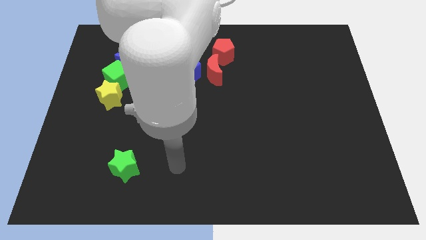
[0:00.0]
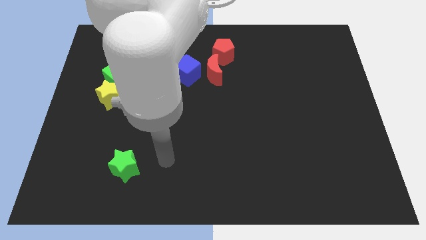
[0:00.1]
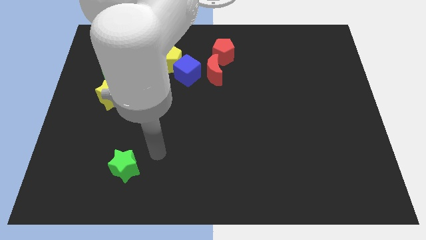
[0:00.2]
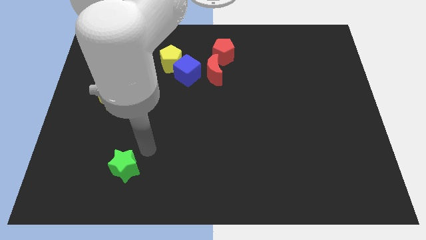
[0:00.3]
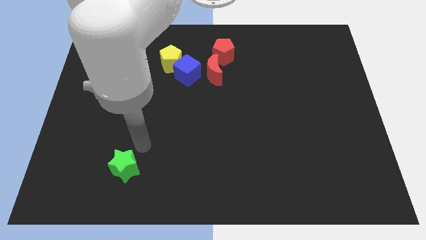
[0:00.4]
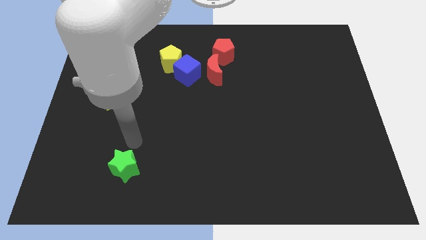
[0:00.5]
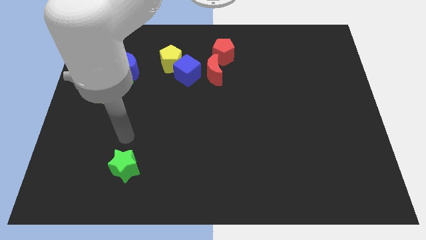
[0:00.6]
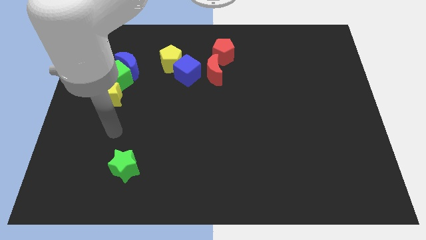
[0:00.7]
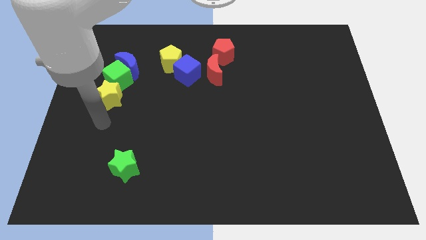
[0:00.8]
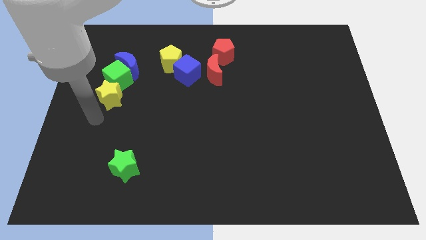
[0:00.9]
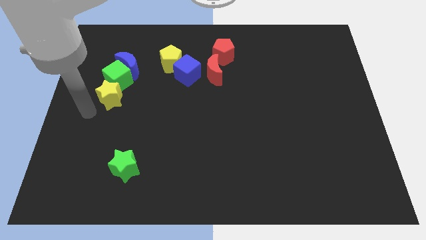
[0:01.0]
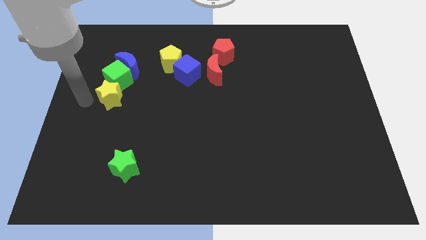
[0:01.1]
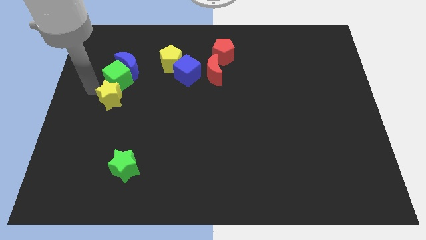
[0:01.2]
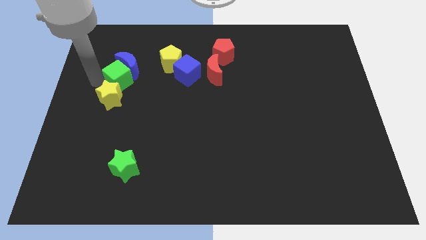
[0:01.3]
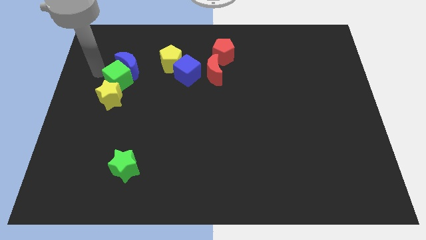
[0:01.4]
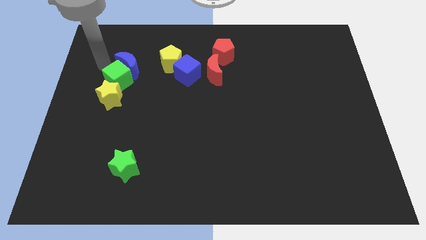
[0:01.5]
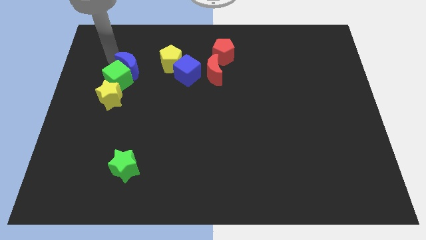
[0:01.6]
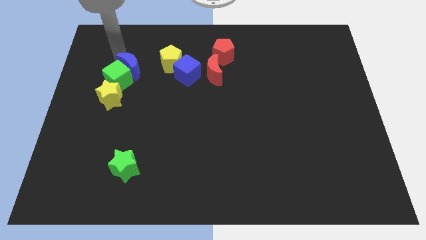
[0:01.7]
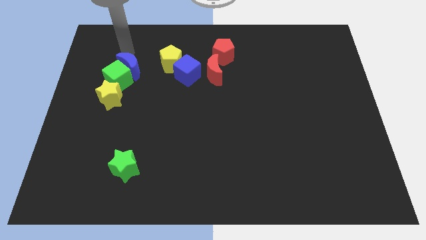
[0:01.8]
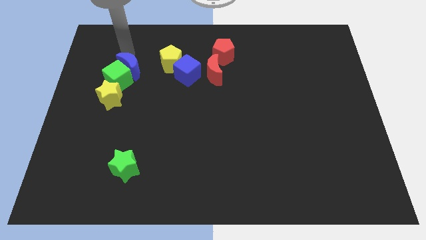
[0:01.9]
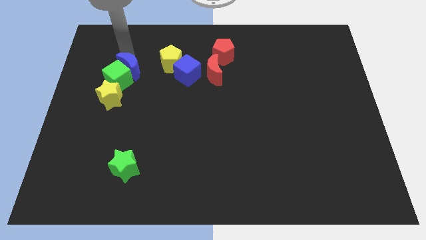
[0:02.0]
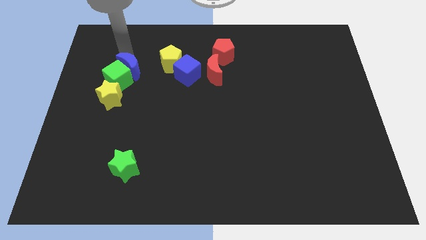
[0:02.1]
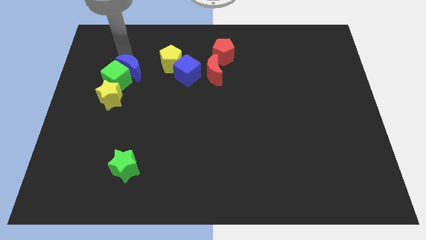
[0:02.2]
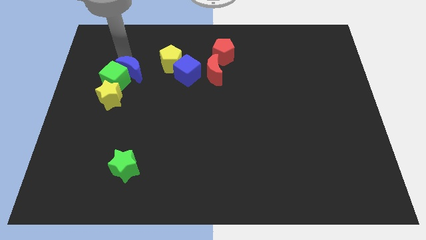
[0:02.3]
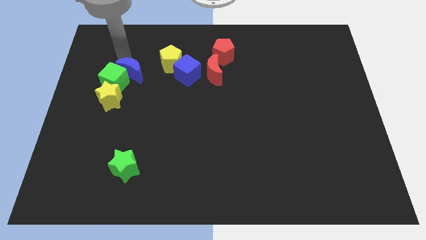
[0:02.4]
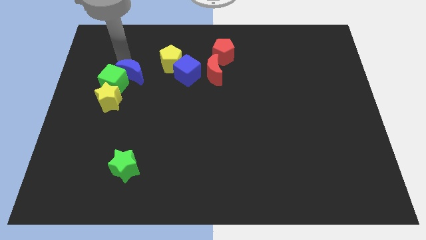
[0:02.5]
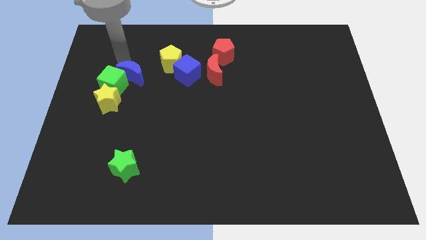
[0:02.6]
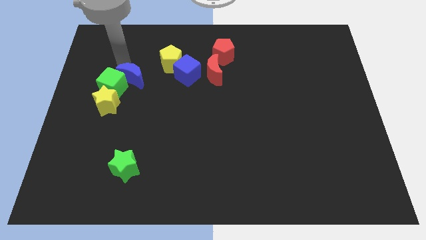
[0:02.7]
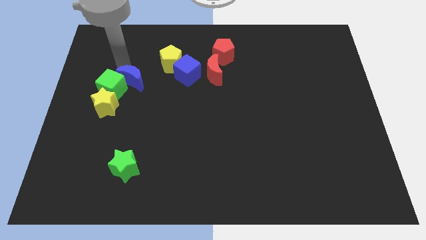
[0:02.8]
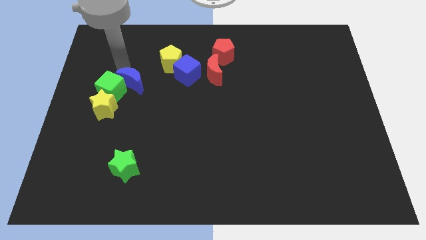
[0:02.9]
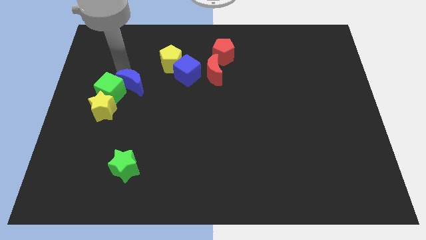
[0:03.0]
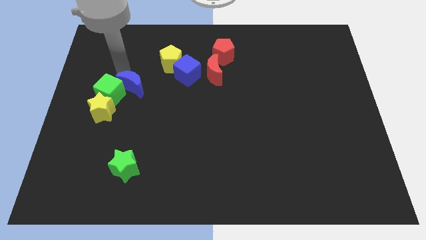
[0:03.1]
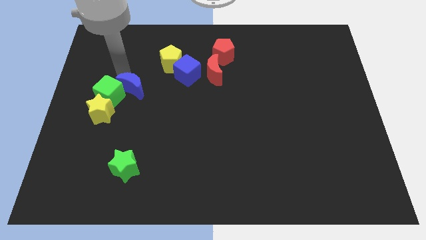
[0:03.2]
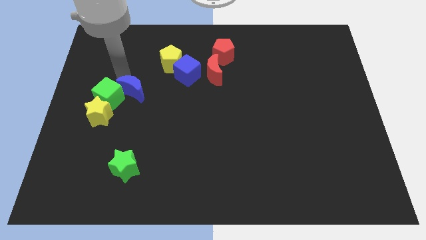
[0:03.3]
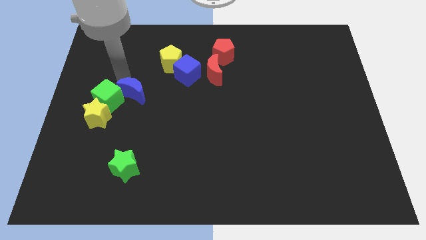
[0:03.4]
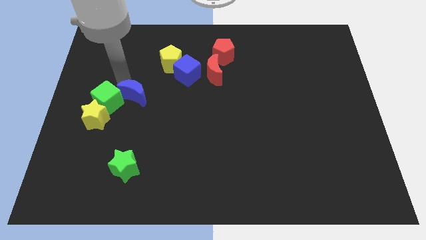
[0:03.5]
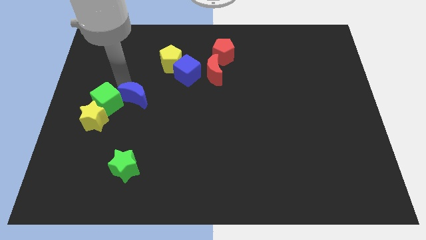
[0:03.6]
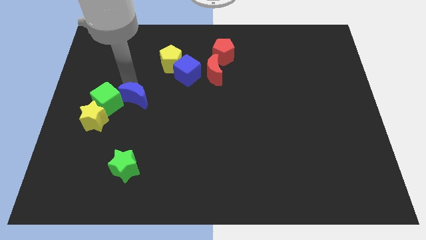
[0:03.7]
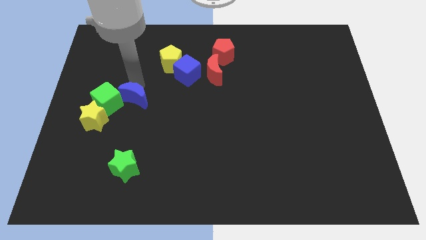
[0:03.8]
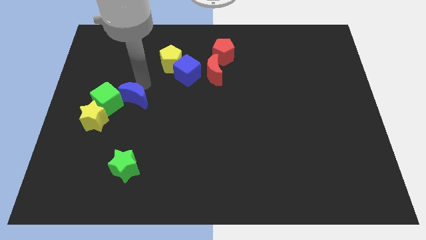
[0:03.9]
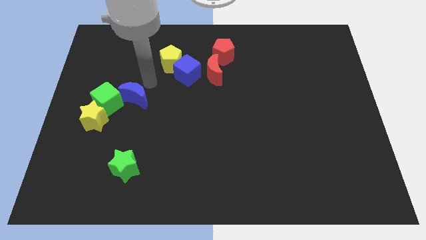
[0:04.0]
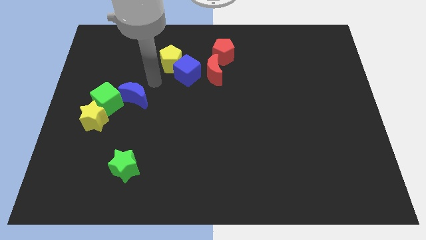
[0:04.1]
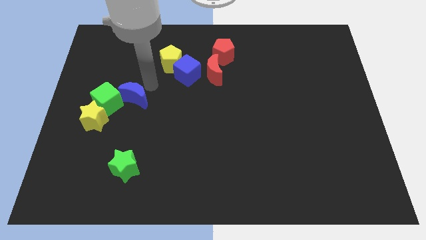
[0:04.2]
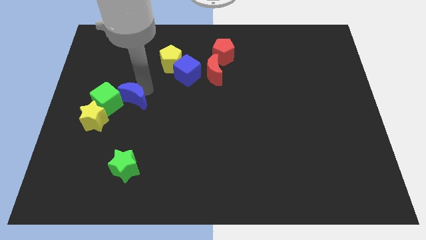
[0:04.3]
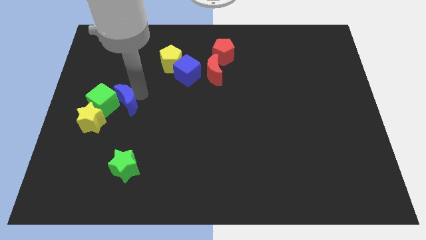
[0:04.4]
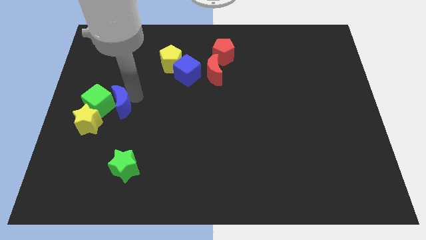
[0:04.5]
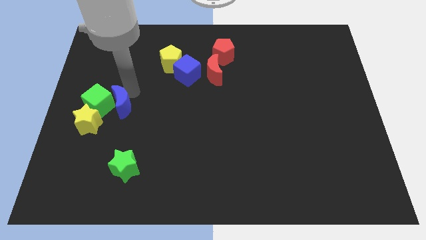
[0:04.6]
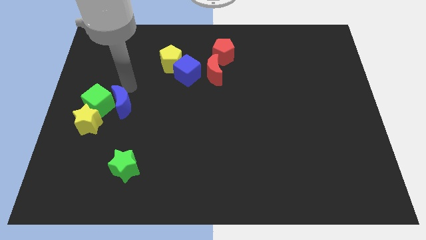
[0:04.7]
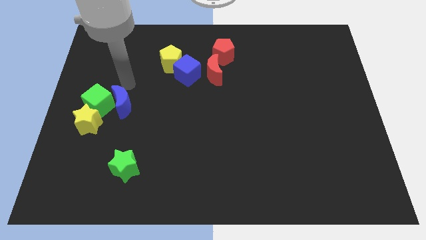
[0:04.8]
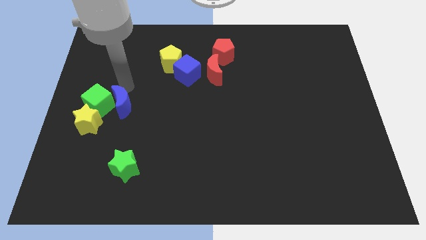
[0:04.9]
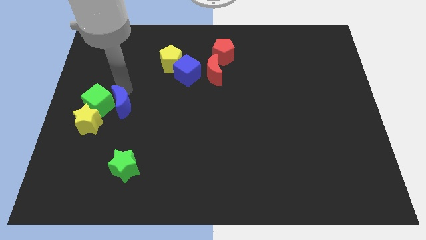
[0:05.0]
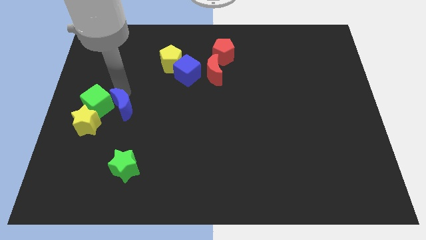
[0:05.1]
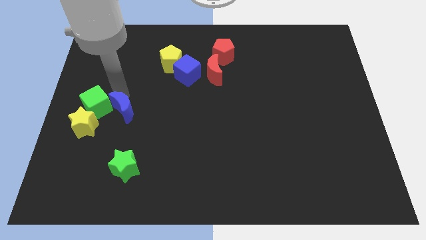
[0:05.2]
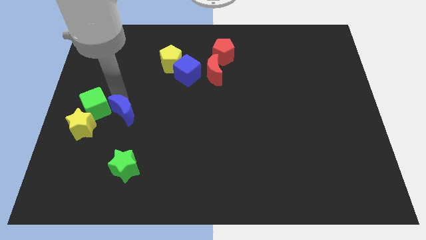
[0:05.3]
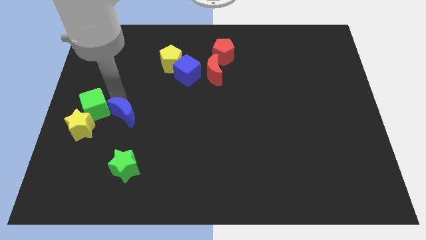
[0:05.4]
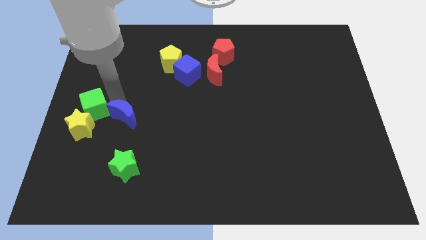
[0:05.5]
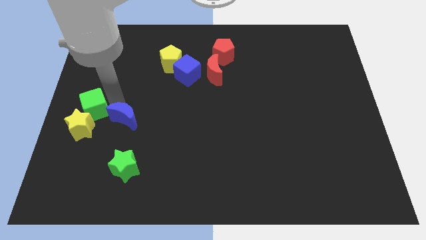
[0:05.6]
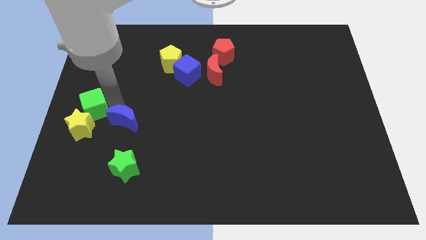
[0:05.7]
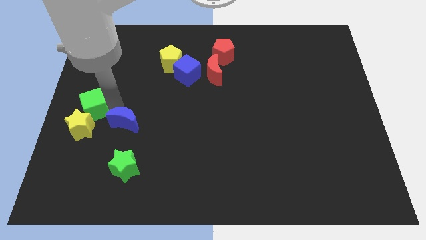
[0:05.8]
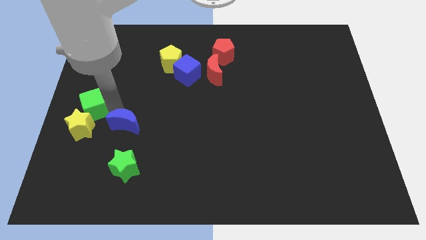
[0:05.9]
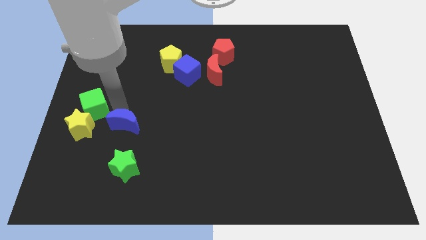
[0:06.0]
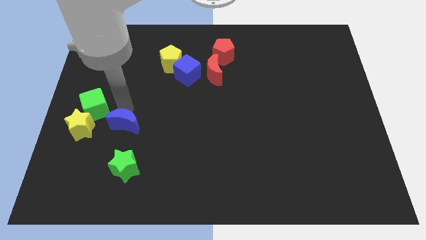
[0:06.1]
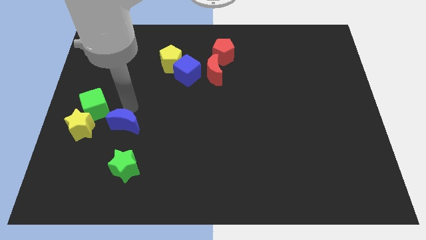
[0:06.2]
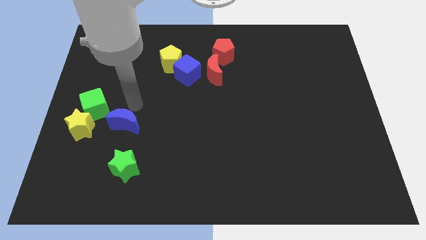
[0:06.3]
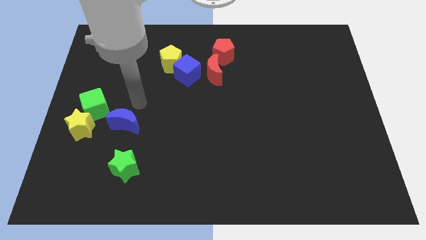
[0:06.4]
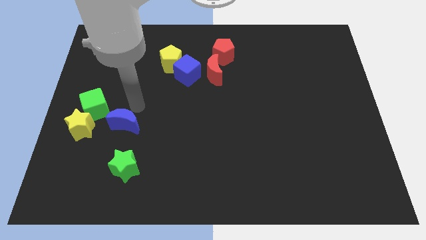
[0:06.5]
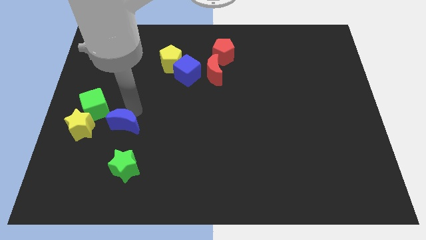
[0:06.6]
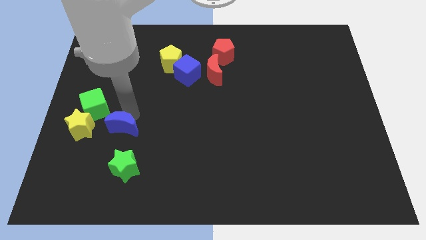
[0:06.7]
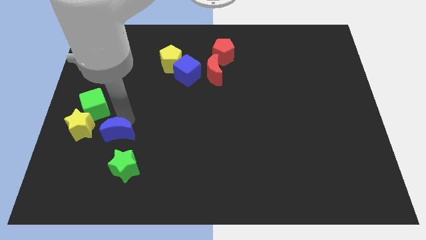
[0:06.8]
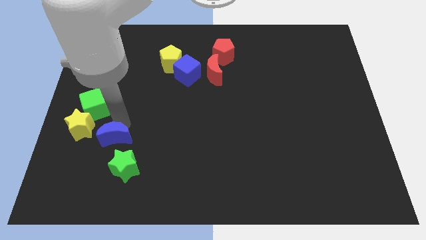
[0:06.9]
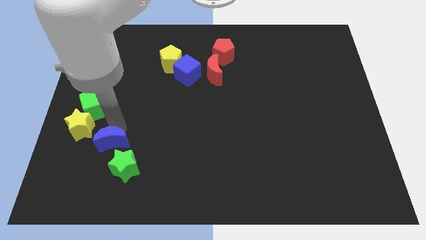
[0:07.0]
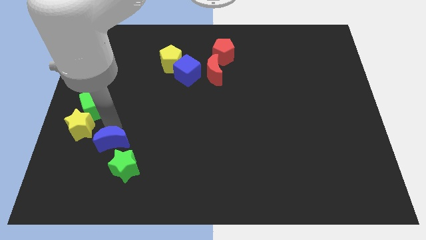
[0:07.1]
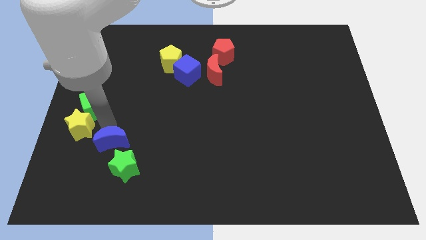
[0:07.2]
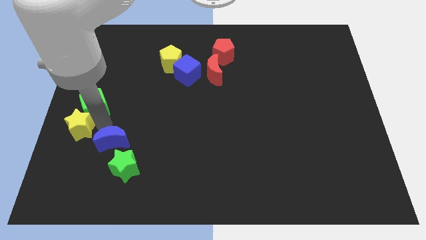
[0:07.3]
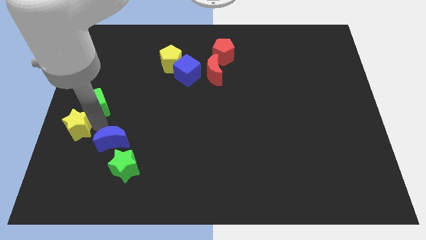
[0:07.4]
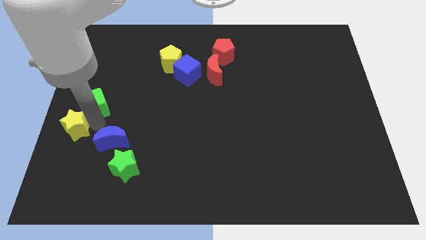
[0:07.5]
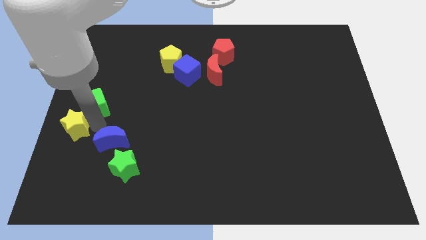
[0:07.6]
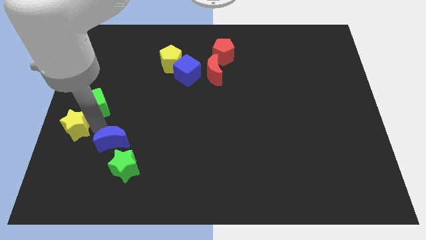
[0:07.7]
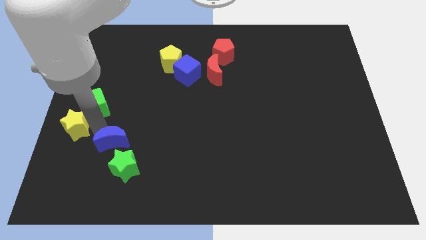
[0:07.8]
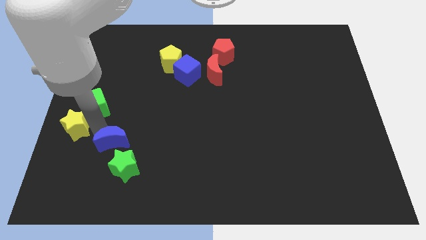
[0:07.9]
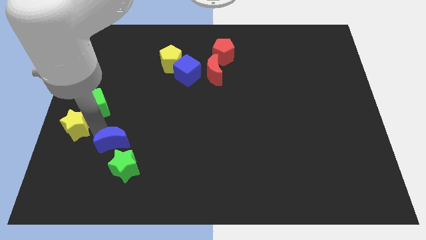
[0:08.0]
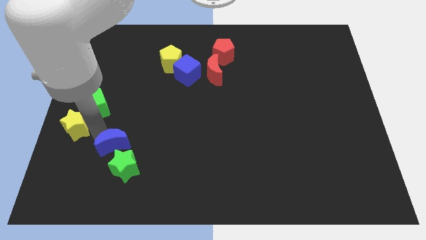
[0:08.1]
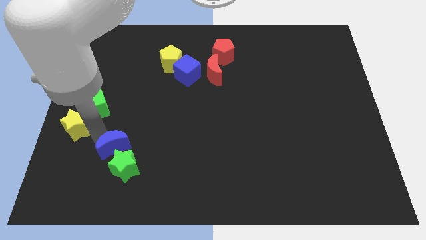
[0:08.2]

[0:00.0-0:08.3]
move the blue moon next to the green star
